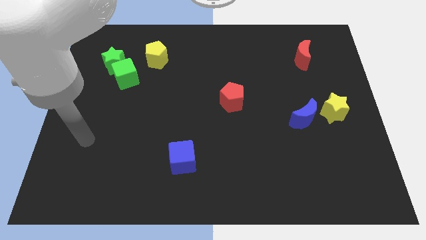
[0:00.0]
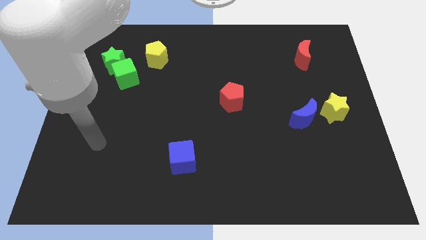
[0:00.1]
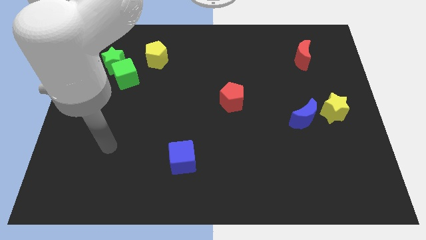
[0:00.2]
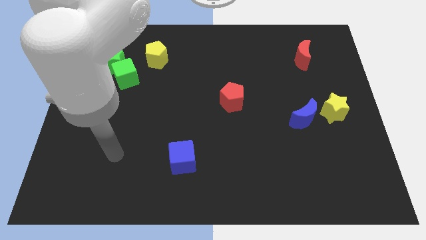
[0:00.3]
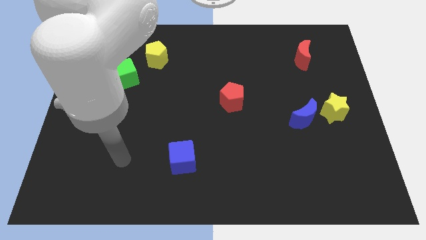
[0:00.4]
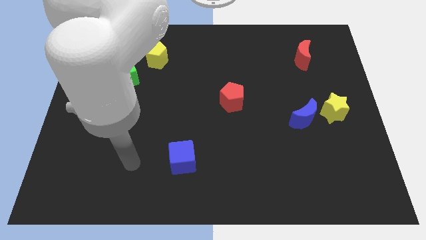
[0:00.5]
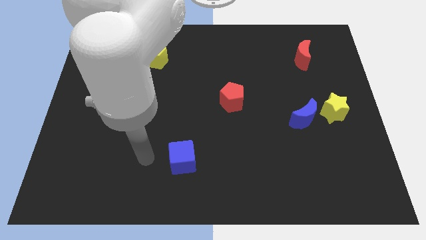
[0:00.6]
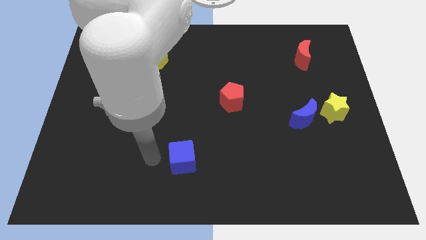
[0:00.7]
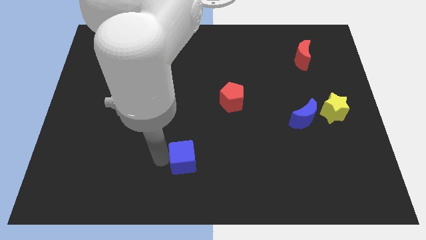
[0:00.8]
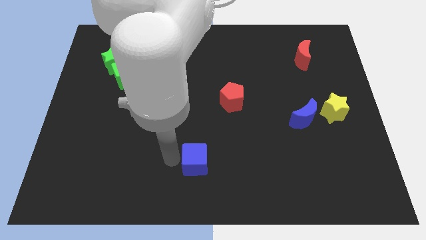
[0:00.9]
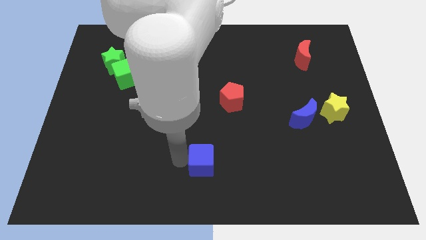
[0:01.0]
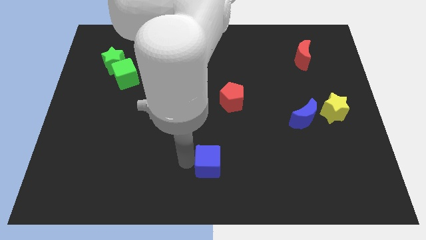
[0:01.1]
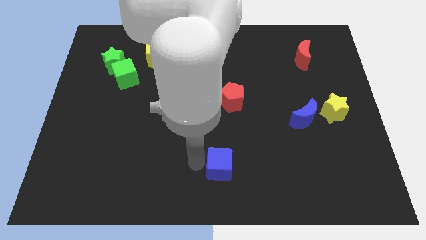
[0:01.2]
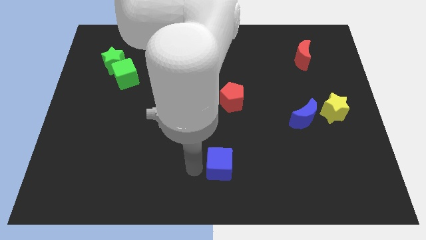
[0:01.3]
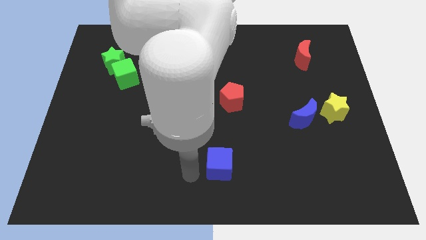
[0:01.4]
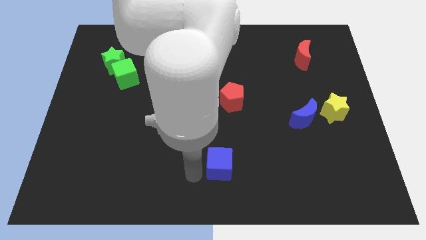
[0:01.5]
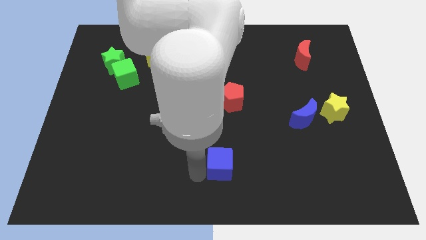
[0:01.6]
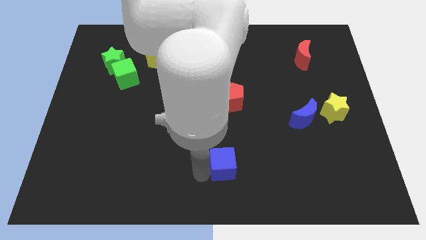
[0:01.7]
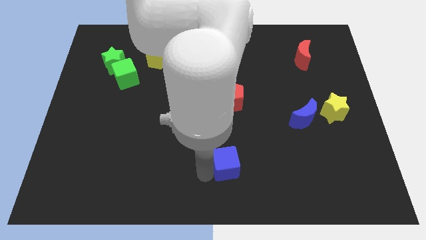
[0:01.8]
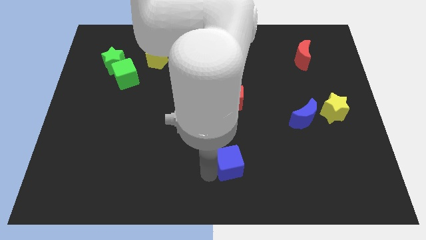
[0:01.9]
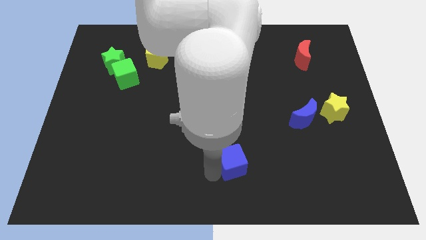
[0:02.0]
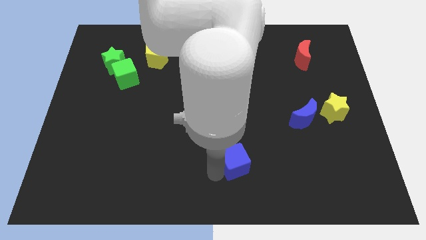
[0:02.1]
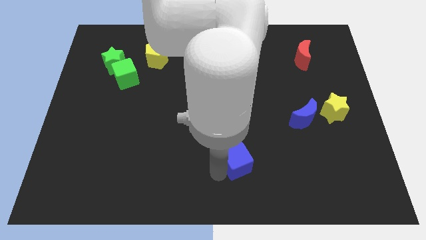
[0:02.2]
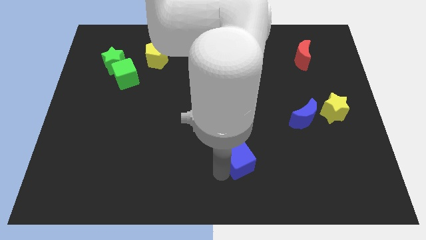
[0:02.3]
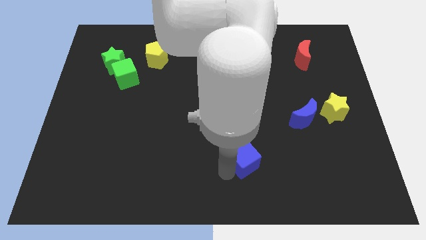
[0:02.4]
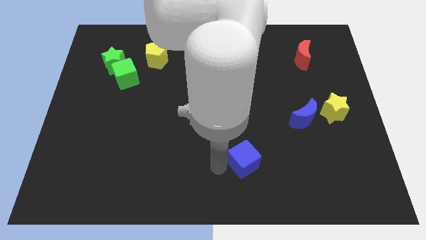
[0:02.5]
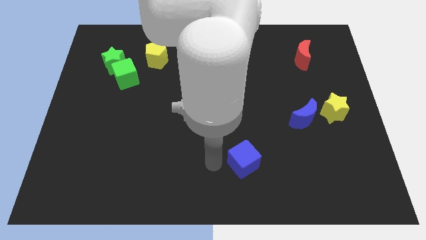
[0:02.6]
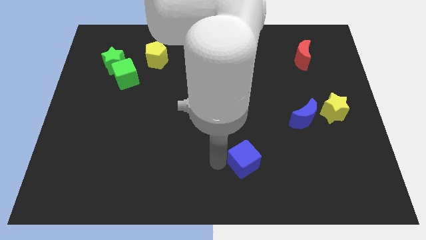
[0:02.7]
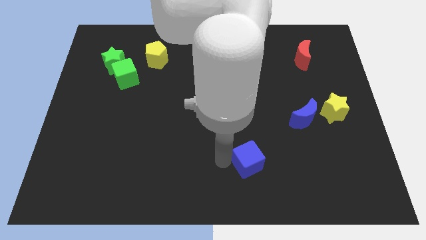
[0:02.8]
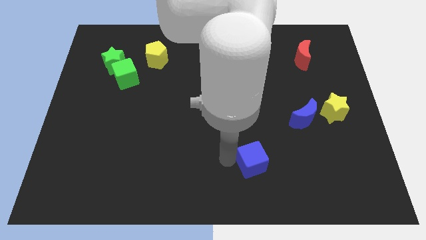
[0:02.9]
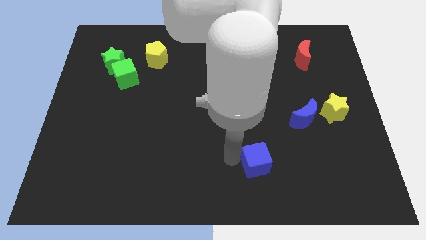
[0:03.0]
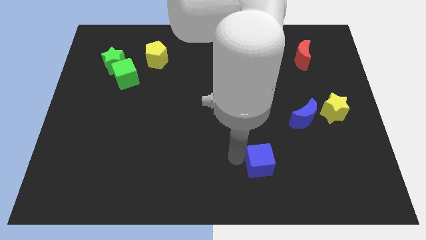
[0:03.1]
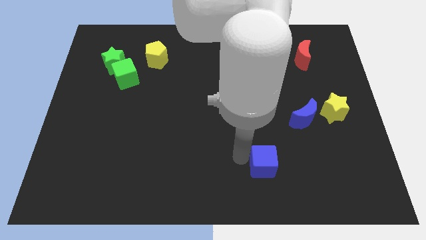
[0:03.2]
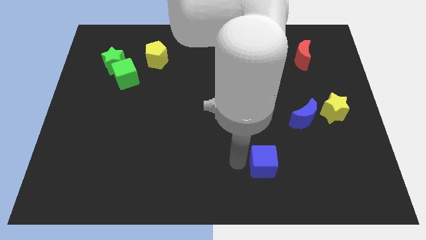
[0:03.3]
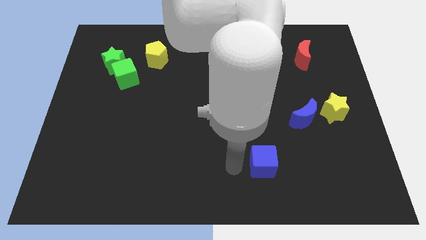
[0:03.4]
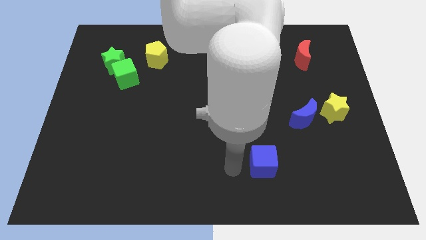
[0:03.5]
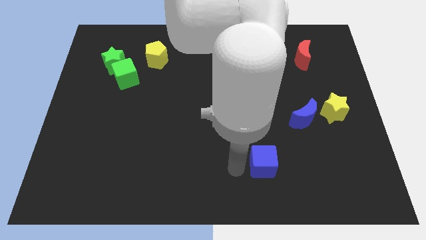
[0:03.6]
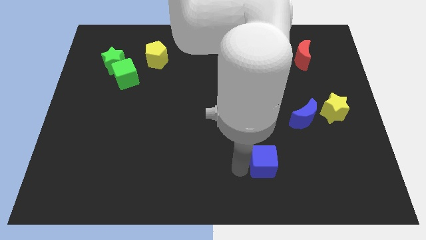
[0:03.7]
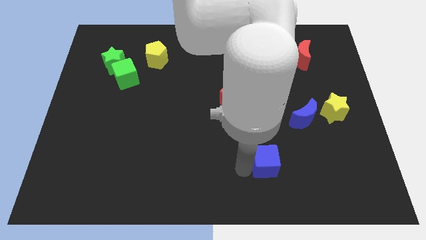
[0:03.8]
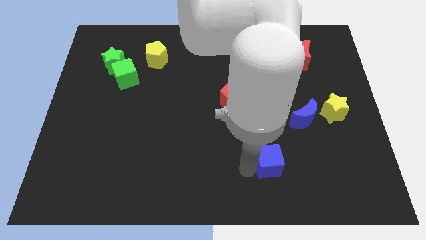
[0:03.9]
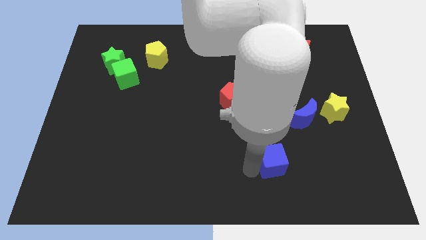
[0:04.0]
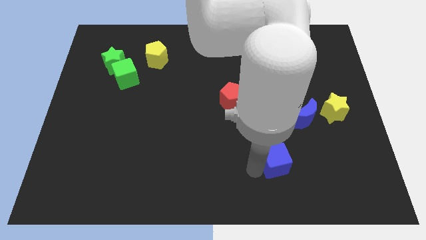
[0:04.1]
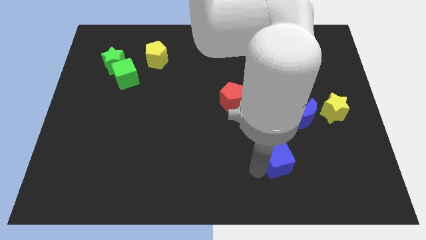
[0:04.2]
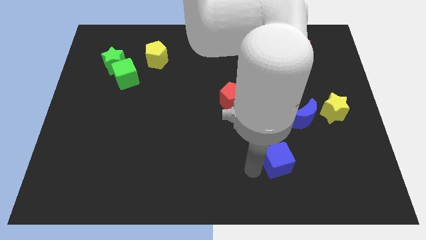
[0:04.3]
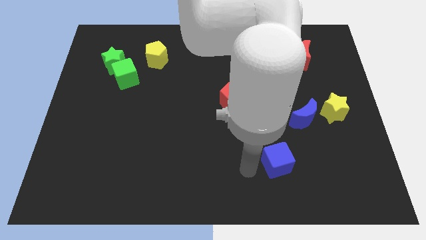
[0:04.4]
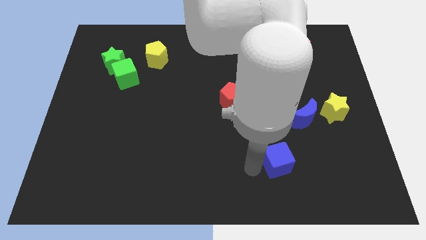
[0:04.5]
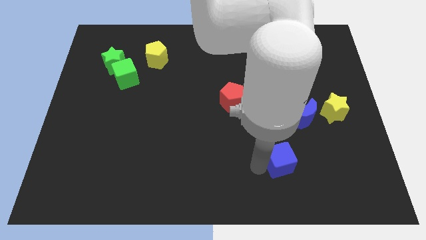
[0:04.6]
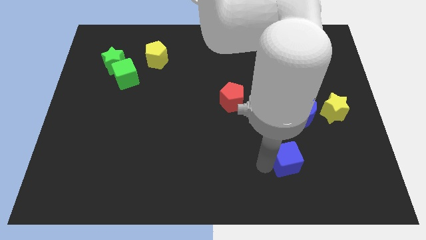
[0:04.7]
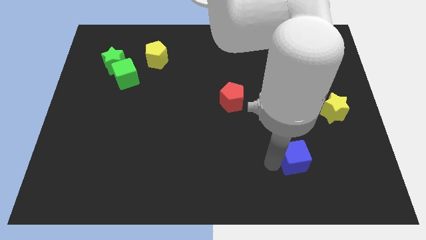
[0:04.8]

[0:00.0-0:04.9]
move the blue cube to the bottom of the blue moon

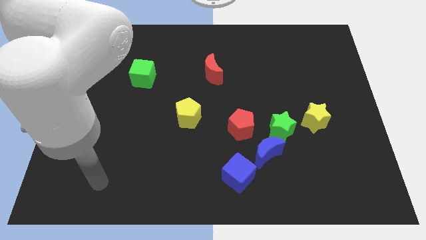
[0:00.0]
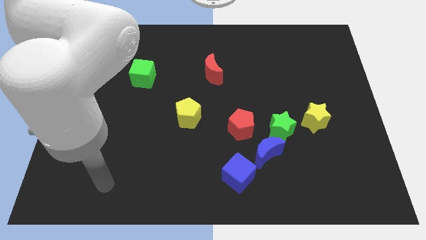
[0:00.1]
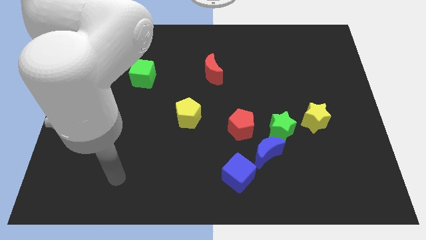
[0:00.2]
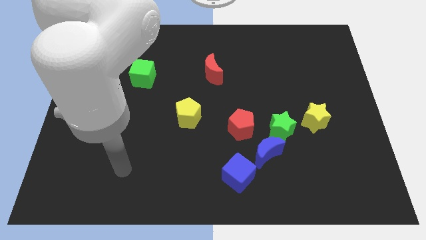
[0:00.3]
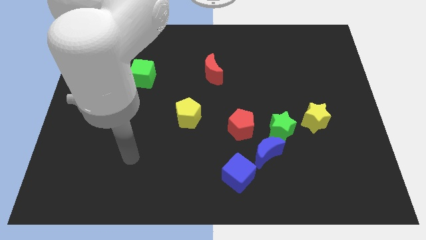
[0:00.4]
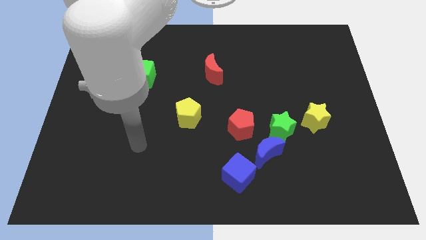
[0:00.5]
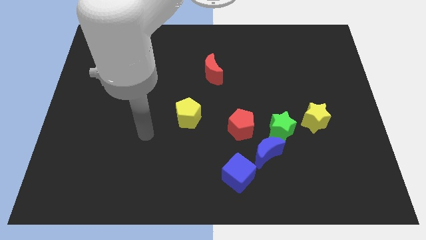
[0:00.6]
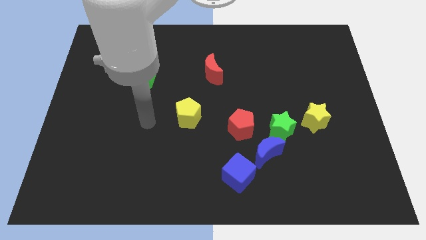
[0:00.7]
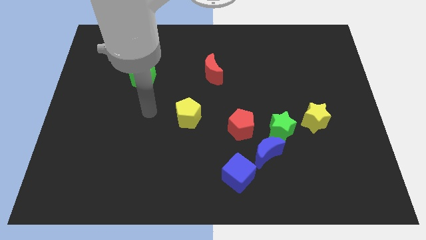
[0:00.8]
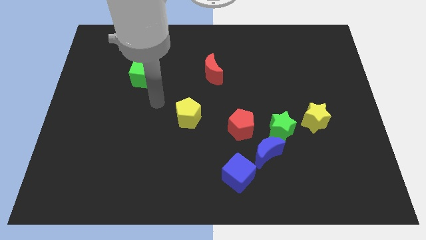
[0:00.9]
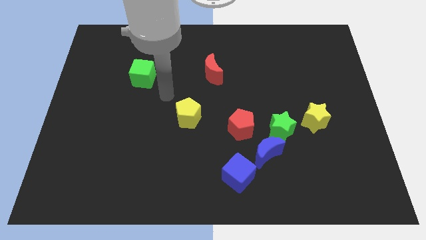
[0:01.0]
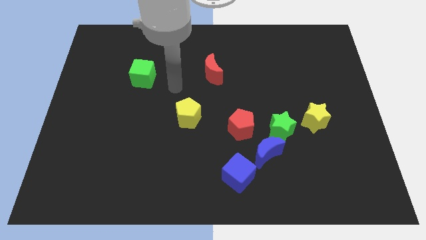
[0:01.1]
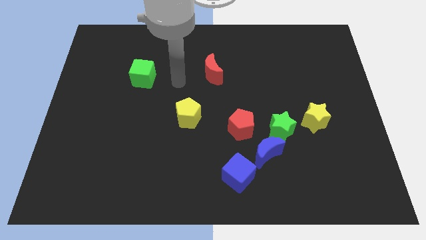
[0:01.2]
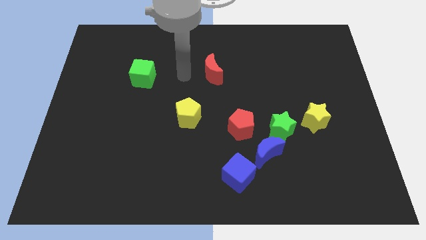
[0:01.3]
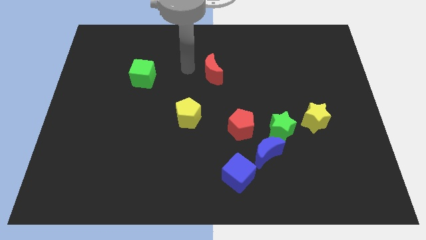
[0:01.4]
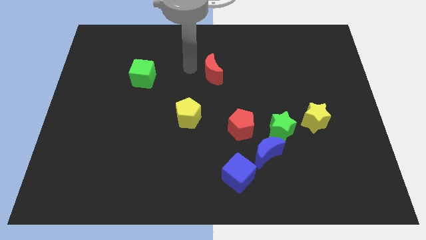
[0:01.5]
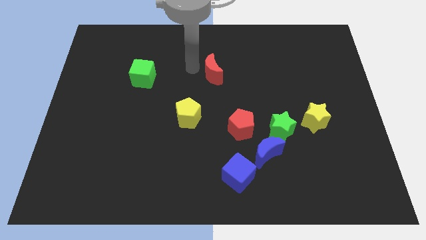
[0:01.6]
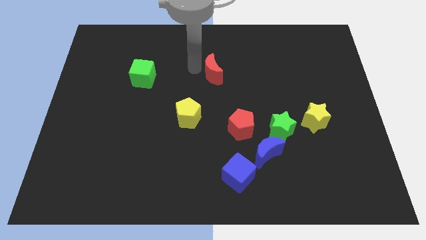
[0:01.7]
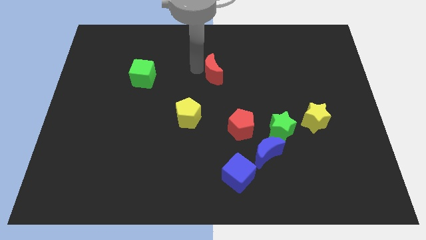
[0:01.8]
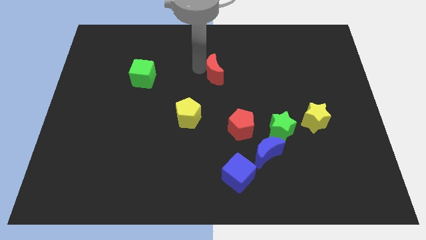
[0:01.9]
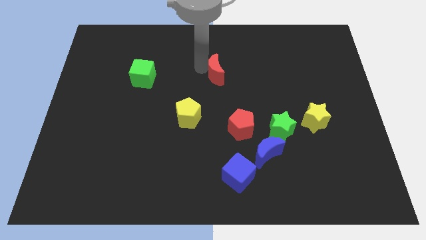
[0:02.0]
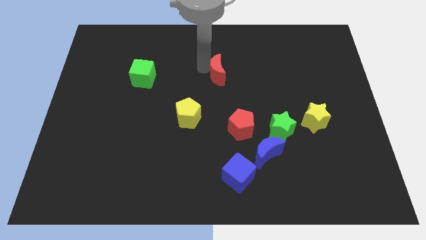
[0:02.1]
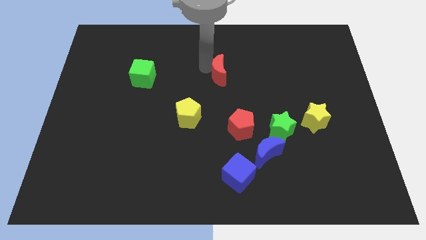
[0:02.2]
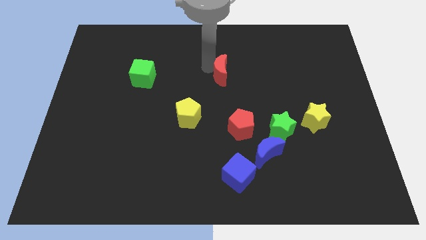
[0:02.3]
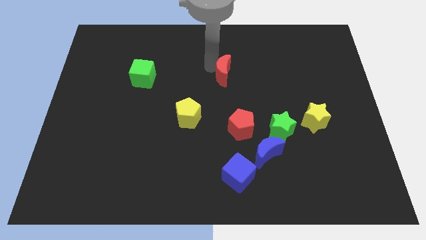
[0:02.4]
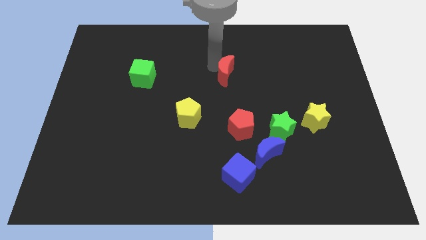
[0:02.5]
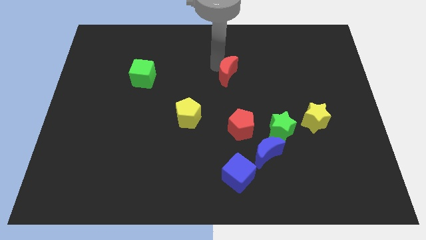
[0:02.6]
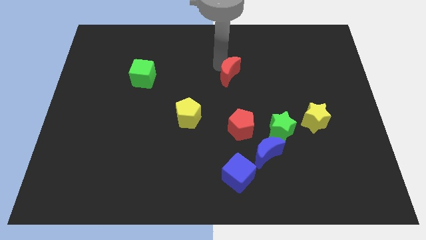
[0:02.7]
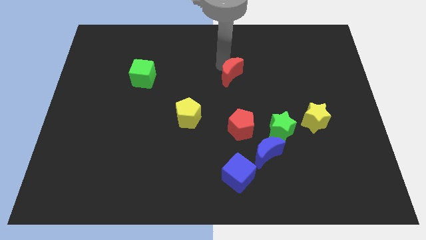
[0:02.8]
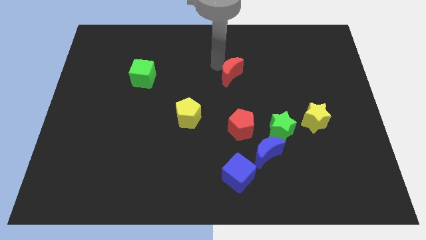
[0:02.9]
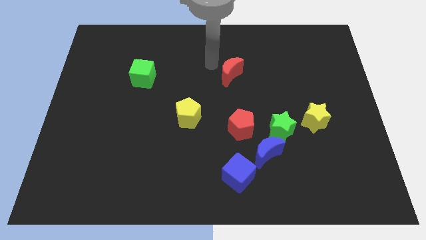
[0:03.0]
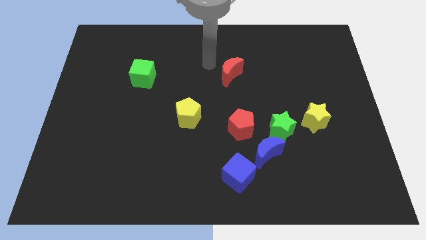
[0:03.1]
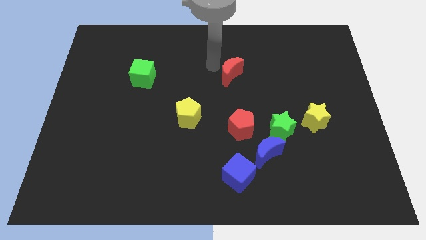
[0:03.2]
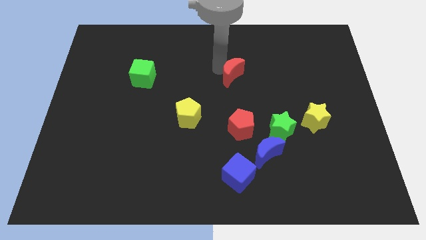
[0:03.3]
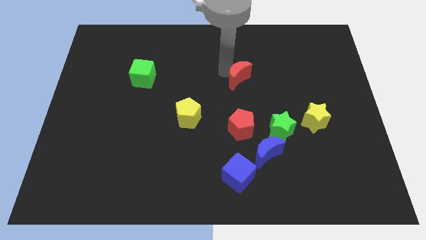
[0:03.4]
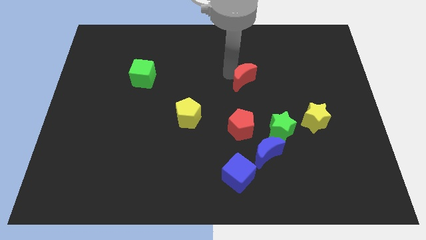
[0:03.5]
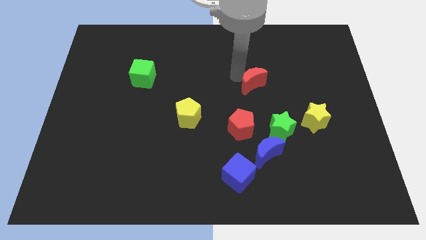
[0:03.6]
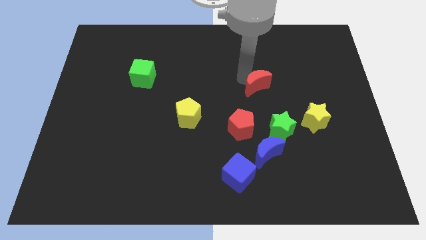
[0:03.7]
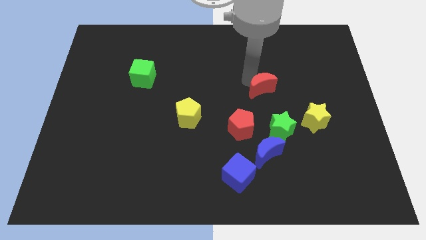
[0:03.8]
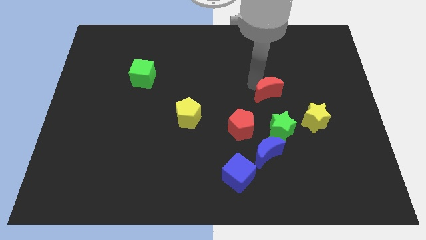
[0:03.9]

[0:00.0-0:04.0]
slide the red moon to the top left of the yellow star
